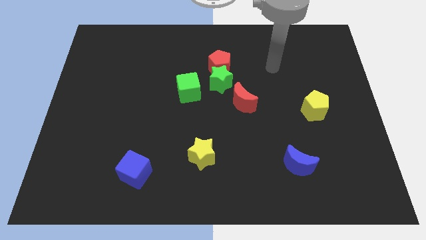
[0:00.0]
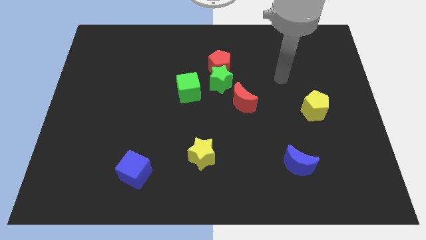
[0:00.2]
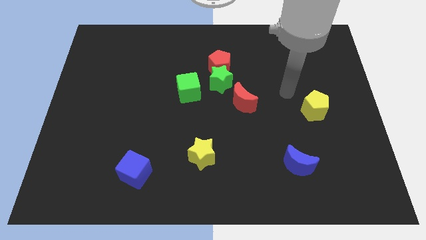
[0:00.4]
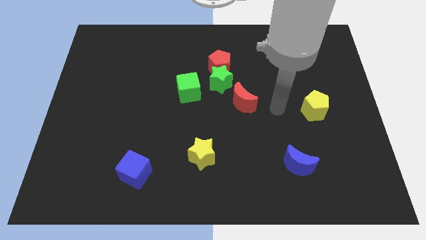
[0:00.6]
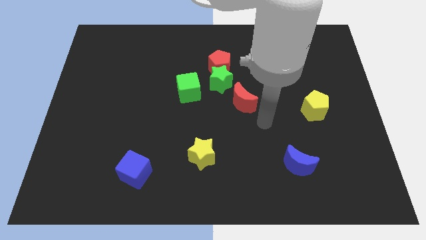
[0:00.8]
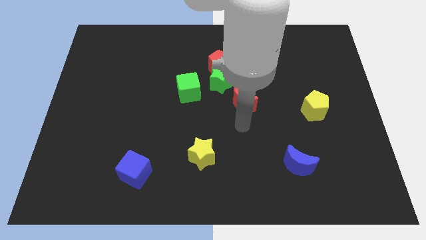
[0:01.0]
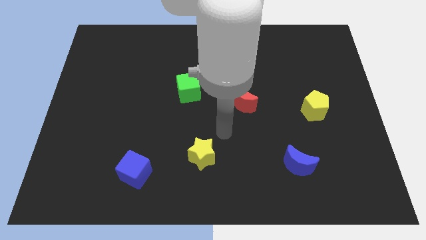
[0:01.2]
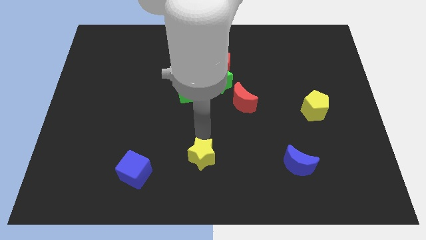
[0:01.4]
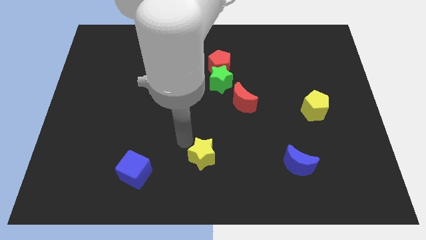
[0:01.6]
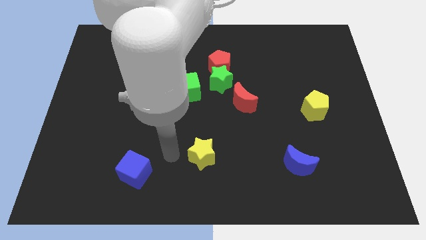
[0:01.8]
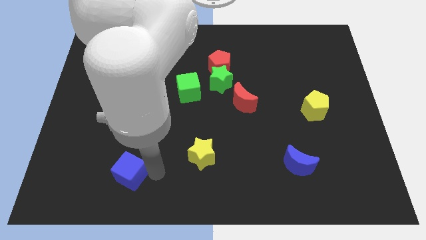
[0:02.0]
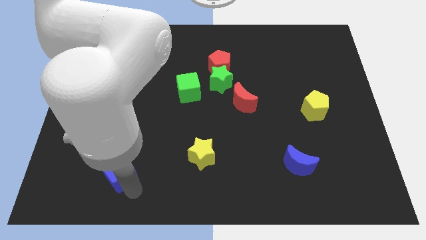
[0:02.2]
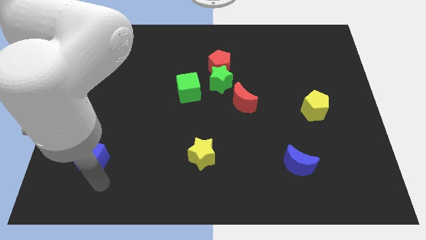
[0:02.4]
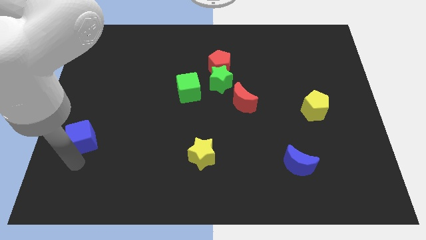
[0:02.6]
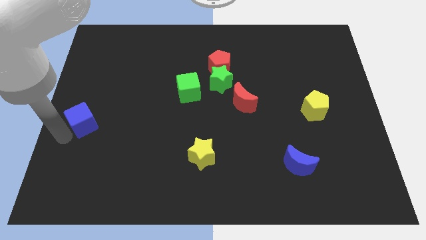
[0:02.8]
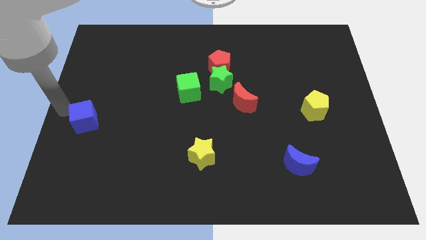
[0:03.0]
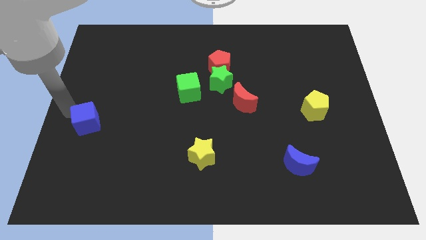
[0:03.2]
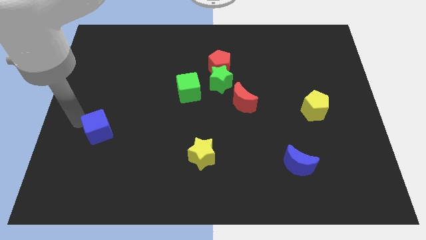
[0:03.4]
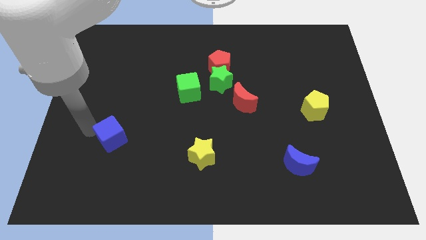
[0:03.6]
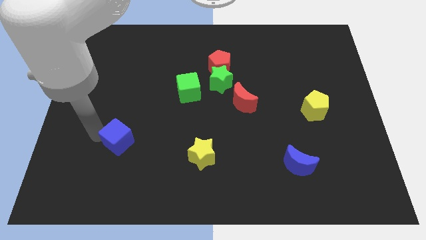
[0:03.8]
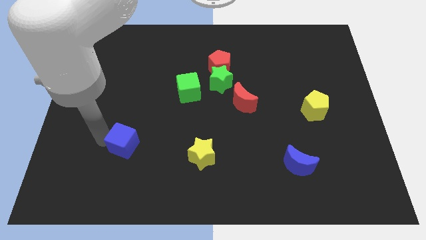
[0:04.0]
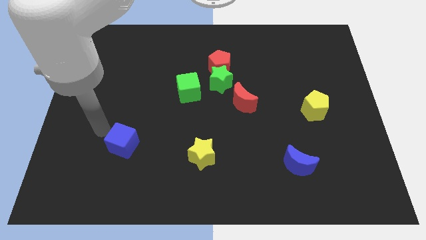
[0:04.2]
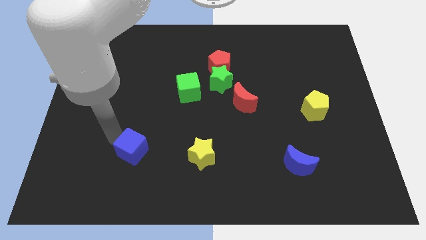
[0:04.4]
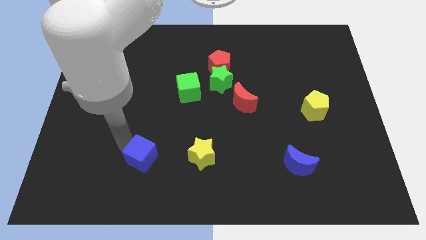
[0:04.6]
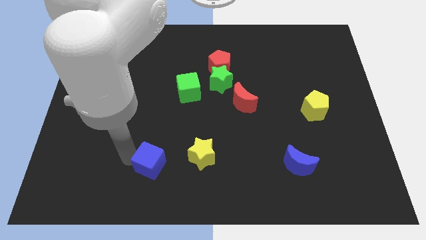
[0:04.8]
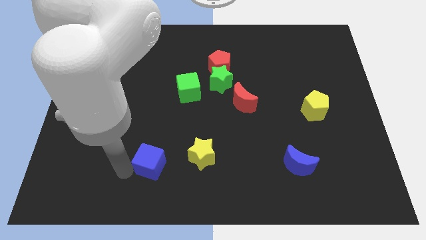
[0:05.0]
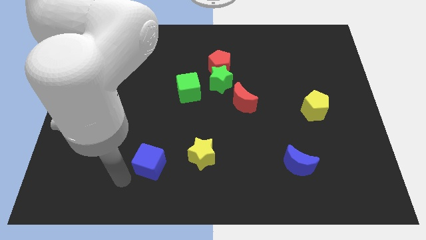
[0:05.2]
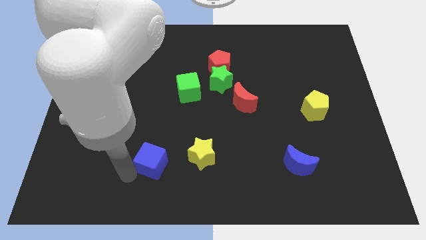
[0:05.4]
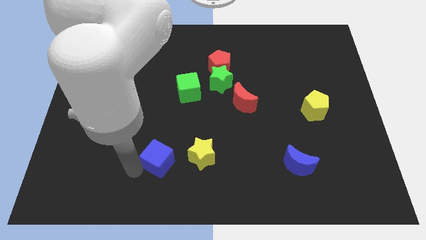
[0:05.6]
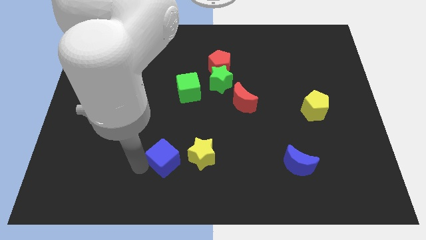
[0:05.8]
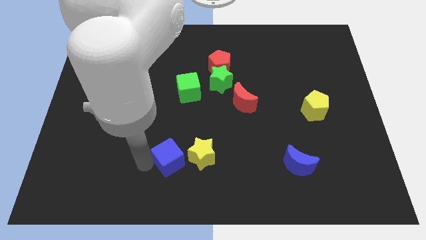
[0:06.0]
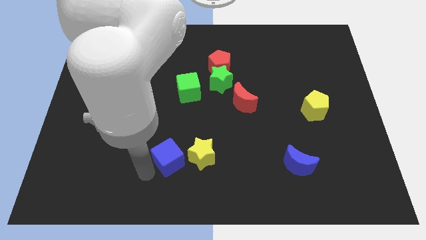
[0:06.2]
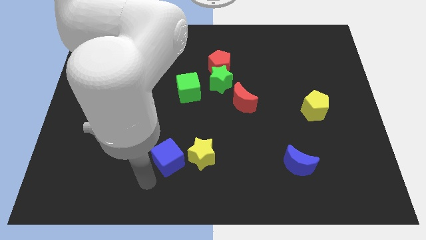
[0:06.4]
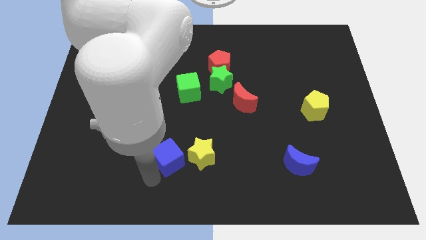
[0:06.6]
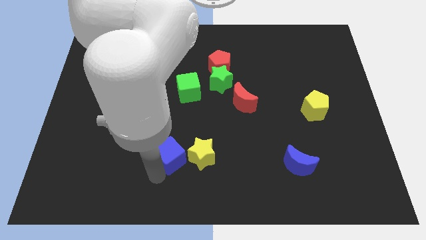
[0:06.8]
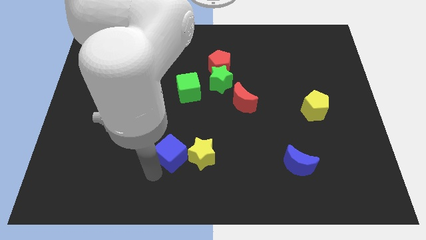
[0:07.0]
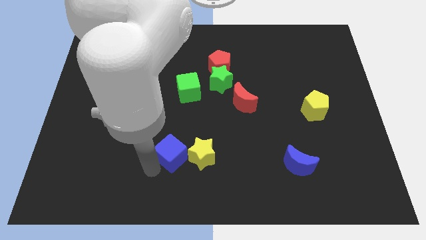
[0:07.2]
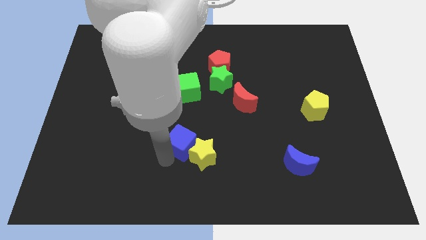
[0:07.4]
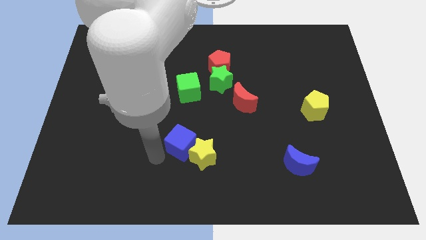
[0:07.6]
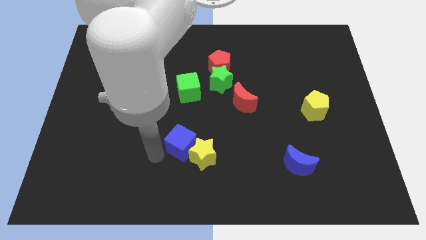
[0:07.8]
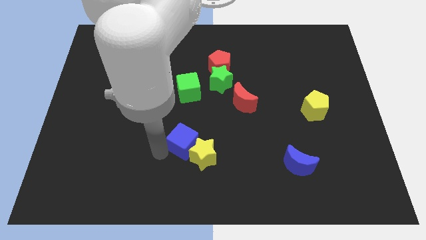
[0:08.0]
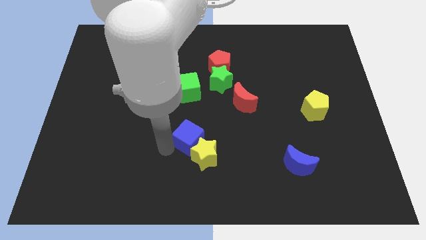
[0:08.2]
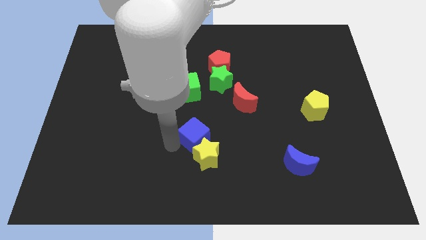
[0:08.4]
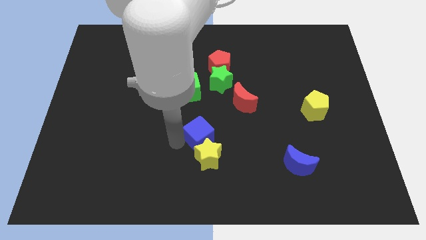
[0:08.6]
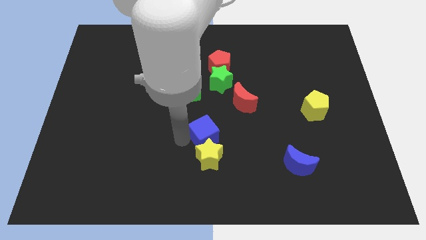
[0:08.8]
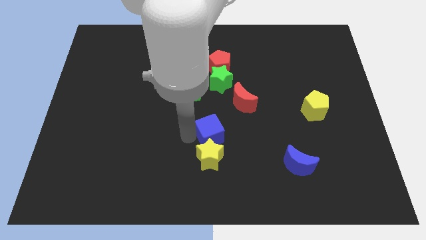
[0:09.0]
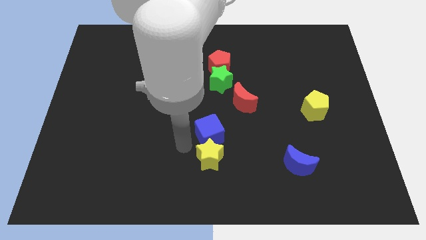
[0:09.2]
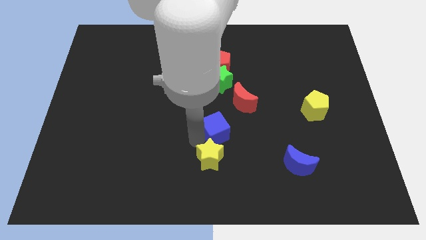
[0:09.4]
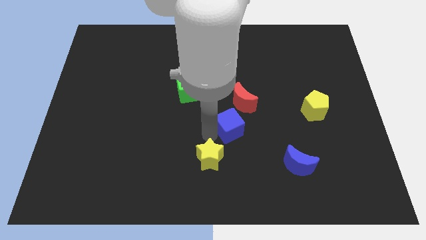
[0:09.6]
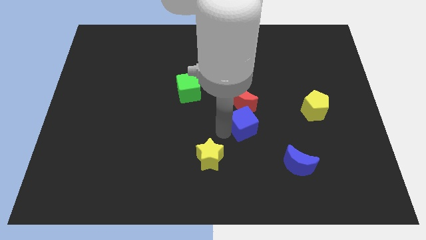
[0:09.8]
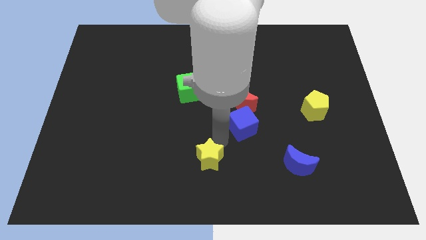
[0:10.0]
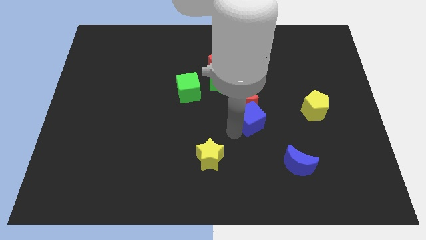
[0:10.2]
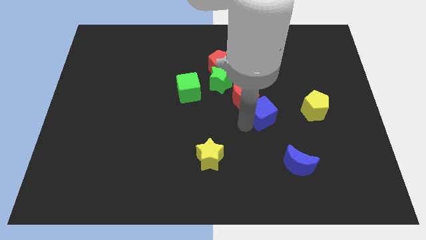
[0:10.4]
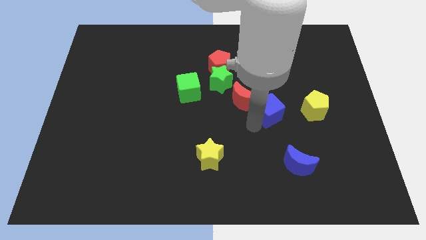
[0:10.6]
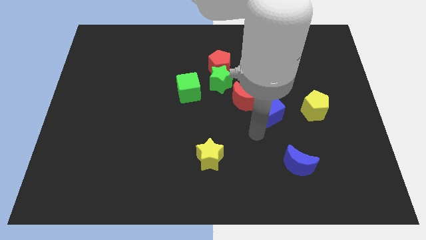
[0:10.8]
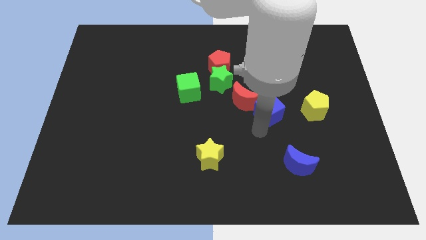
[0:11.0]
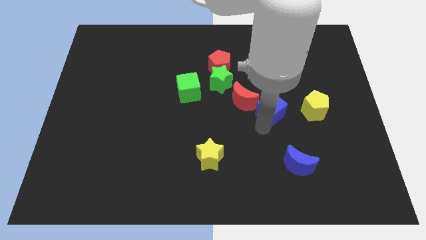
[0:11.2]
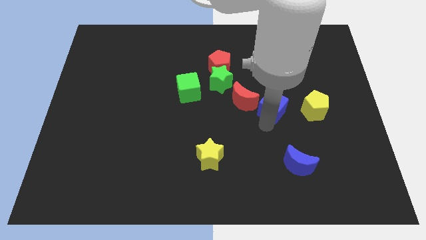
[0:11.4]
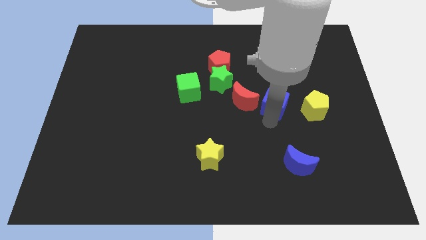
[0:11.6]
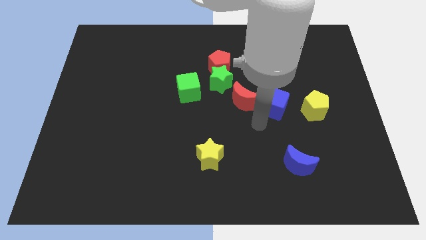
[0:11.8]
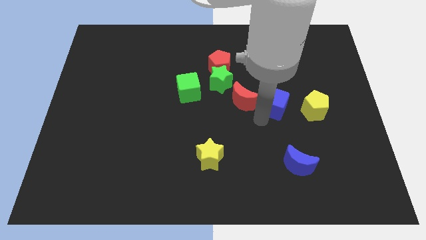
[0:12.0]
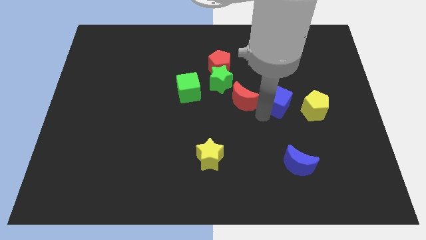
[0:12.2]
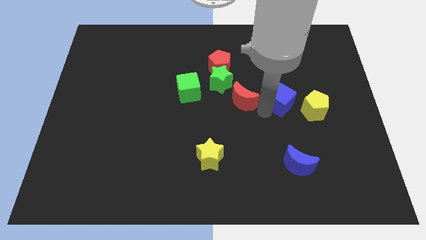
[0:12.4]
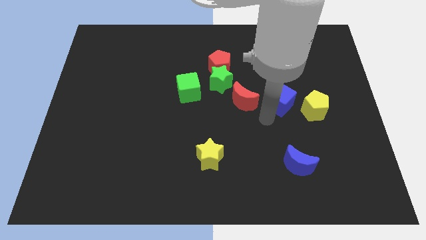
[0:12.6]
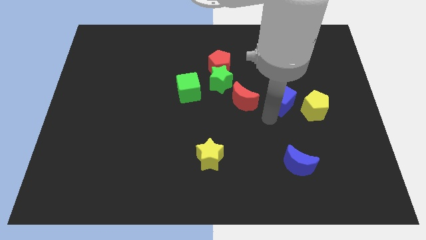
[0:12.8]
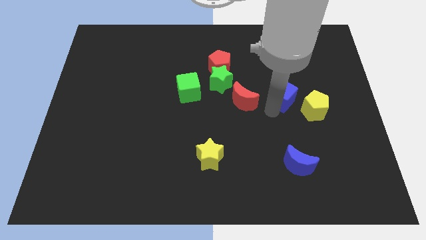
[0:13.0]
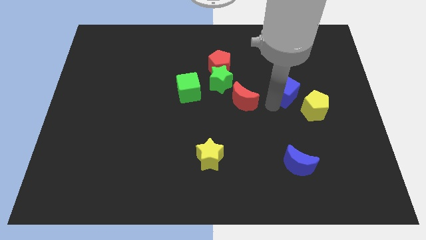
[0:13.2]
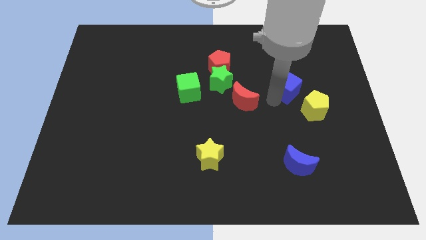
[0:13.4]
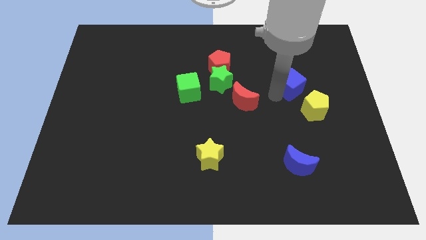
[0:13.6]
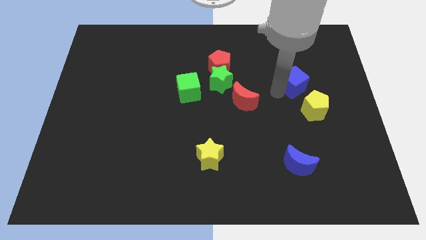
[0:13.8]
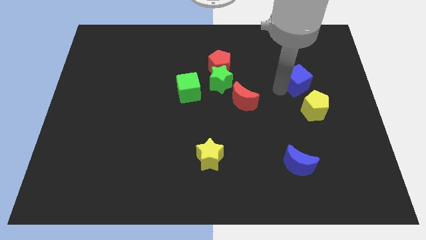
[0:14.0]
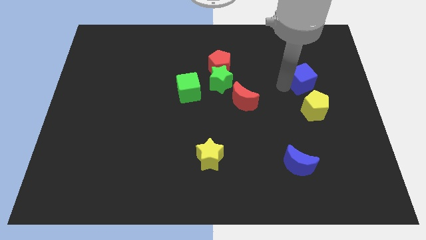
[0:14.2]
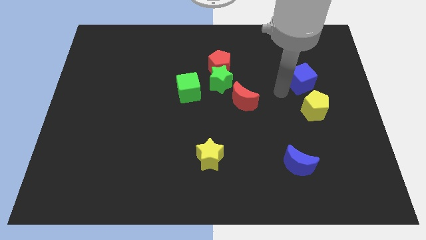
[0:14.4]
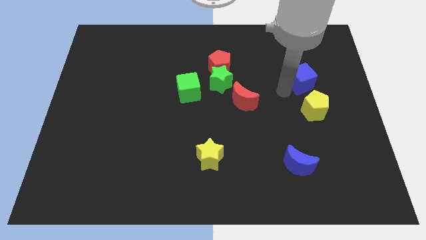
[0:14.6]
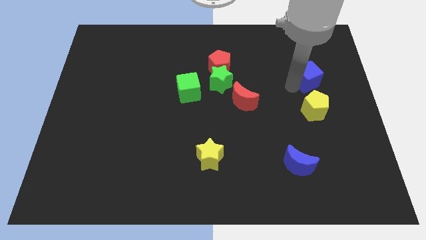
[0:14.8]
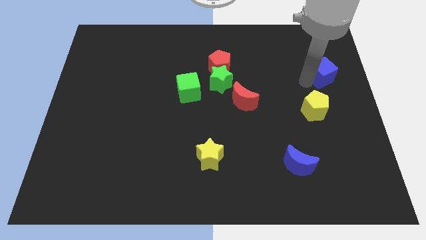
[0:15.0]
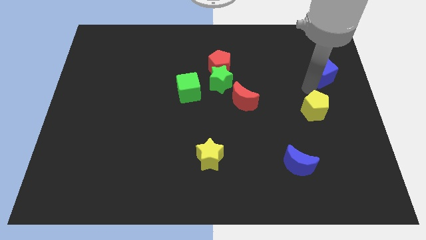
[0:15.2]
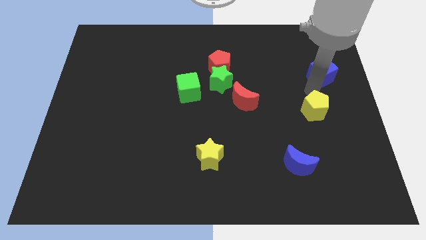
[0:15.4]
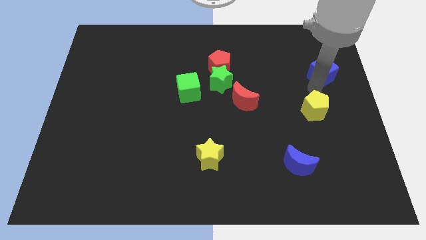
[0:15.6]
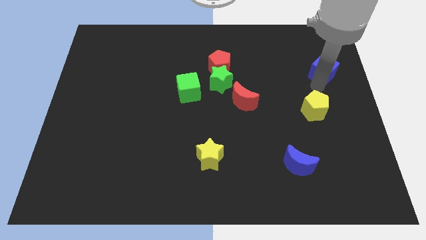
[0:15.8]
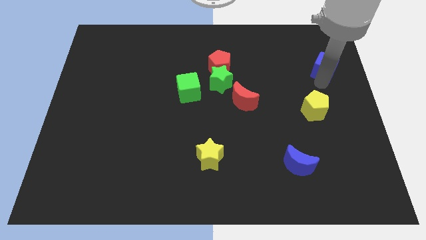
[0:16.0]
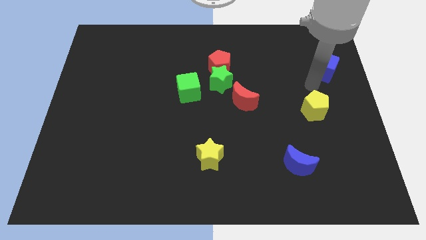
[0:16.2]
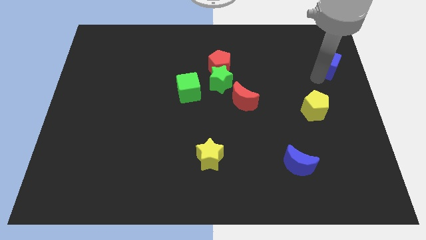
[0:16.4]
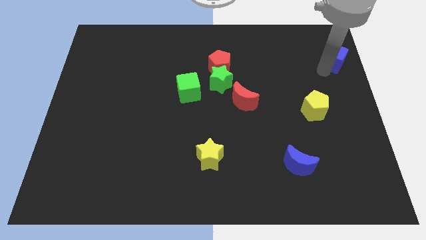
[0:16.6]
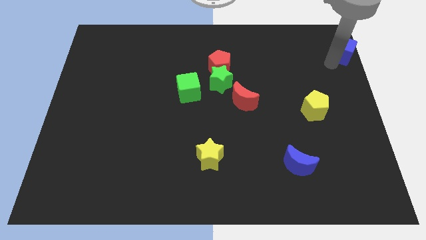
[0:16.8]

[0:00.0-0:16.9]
slide the blue cube to the top right
